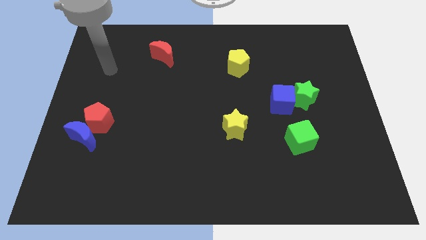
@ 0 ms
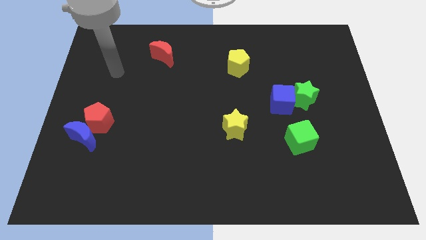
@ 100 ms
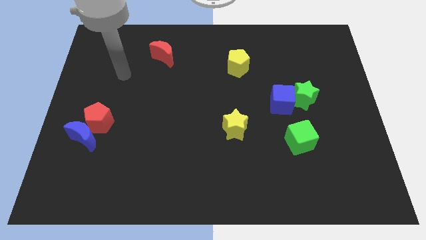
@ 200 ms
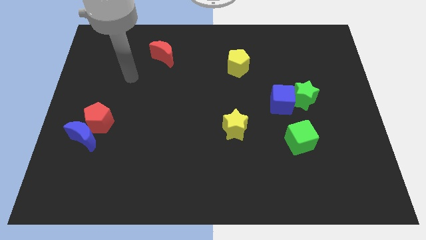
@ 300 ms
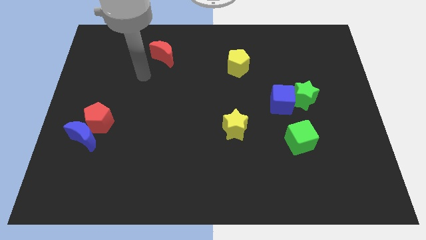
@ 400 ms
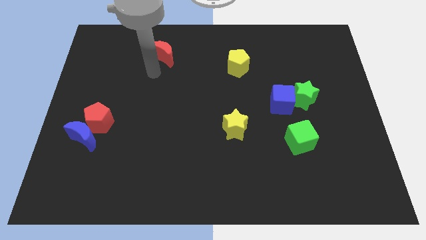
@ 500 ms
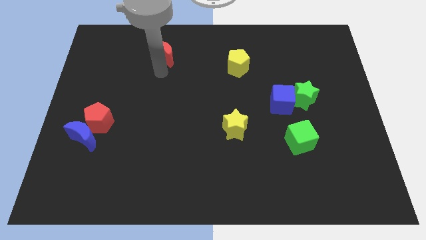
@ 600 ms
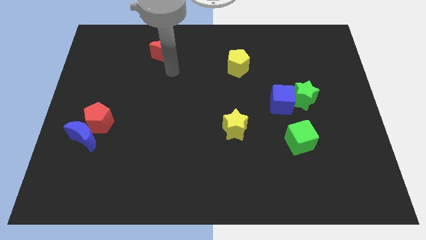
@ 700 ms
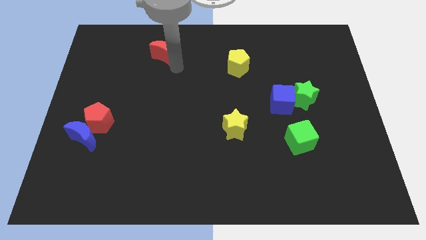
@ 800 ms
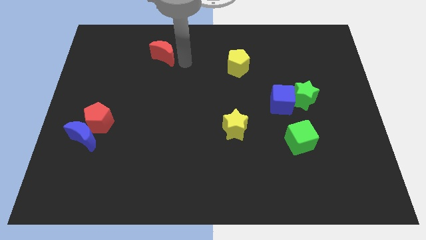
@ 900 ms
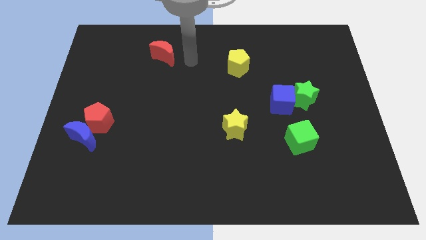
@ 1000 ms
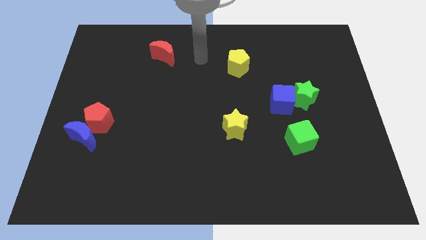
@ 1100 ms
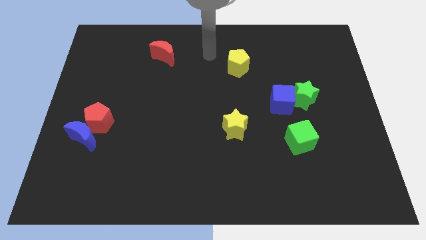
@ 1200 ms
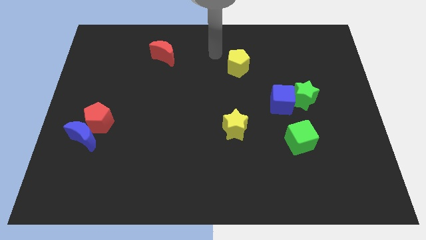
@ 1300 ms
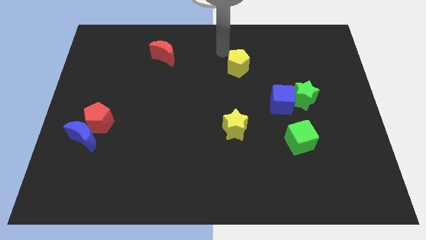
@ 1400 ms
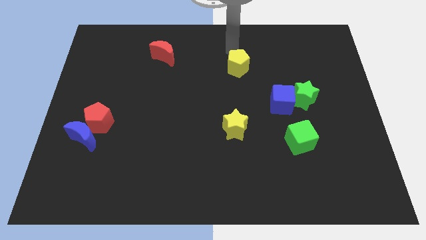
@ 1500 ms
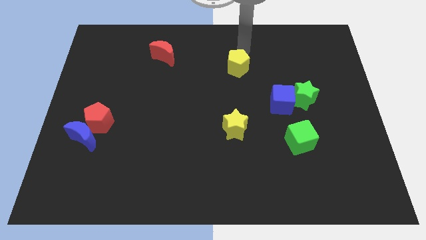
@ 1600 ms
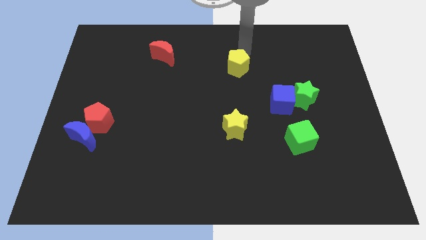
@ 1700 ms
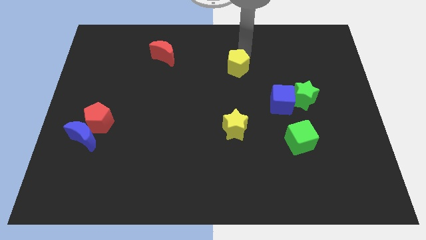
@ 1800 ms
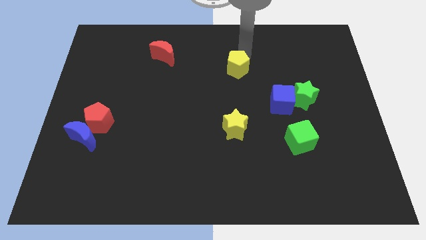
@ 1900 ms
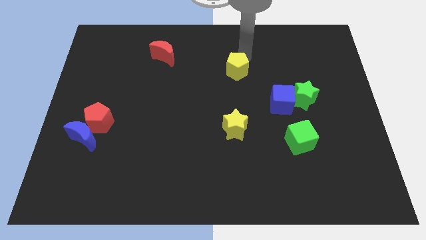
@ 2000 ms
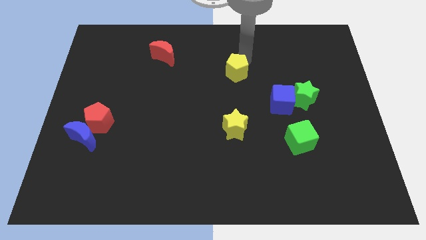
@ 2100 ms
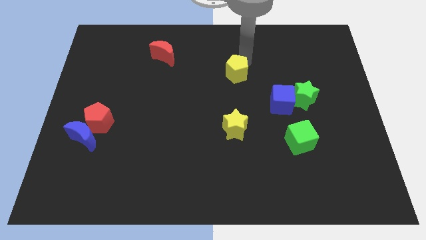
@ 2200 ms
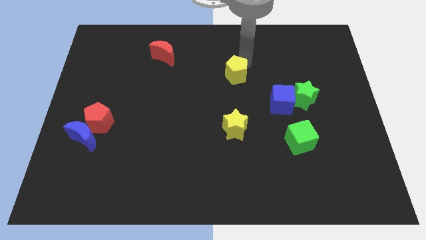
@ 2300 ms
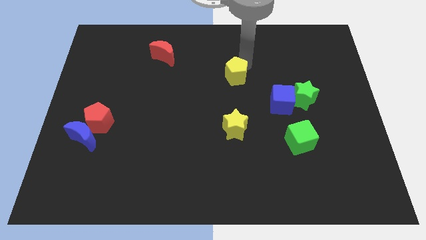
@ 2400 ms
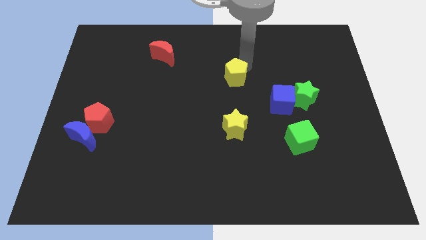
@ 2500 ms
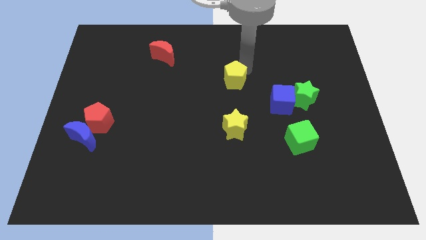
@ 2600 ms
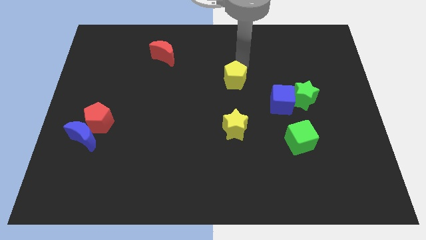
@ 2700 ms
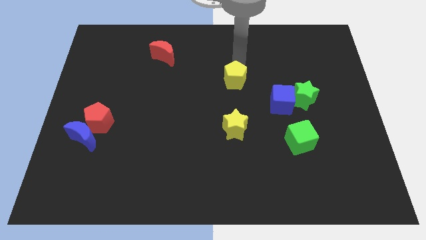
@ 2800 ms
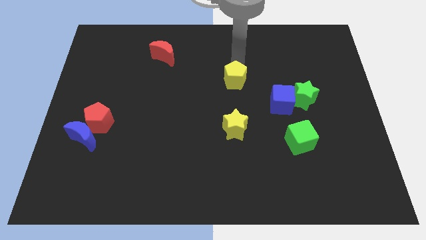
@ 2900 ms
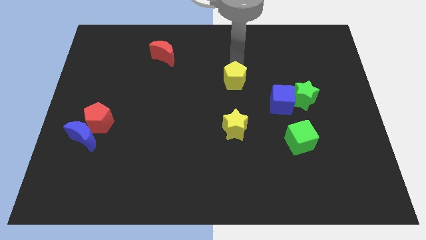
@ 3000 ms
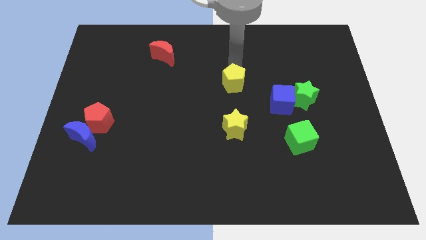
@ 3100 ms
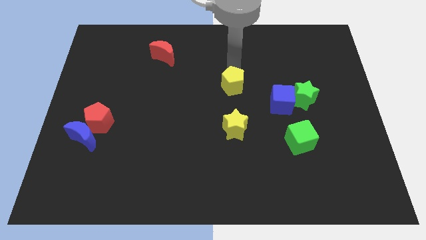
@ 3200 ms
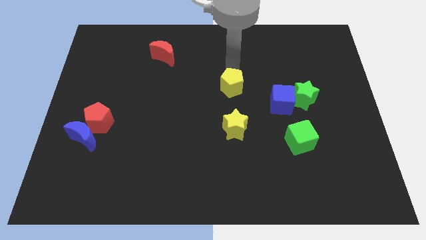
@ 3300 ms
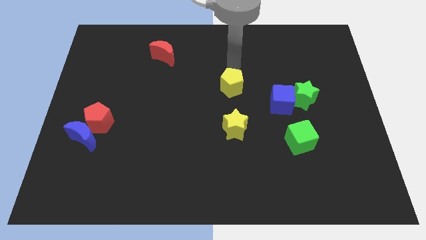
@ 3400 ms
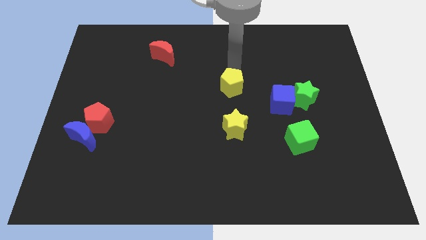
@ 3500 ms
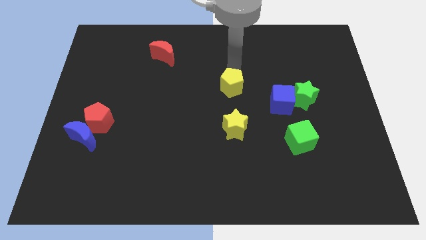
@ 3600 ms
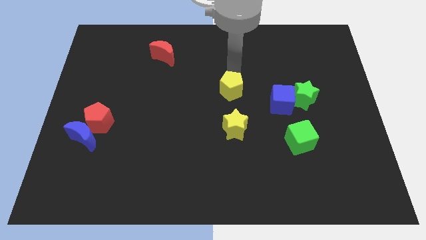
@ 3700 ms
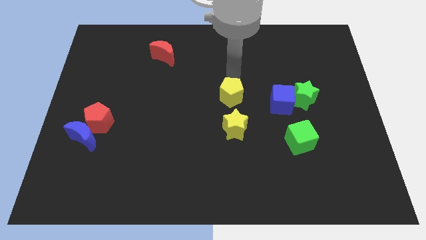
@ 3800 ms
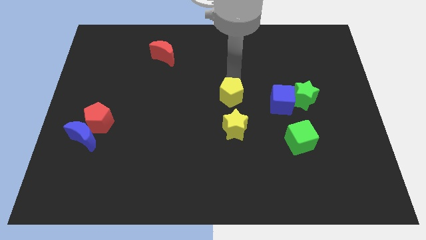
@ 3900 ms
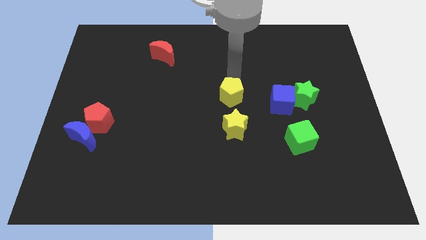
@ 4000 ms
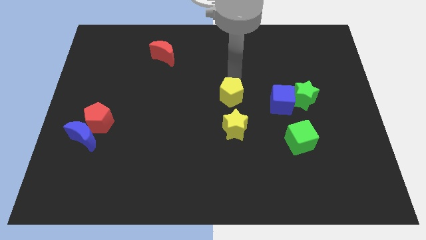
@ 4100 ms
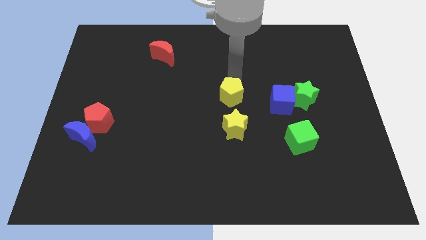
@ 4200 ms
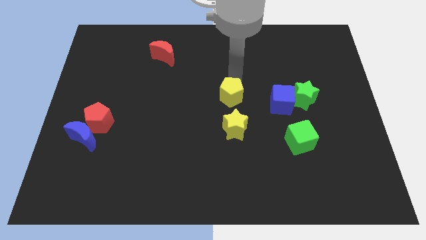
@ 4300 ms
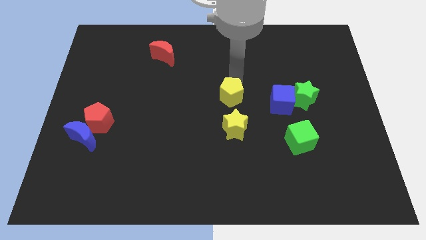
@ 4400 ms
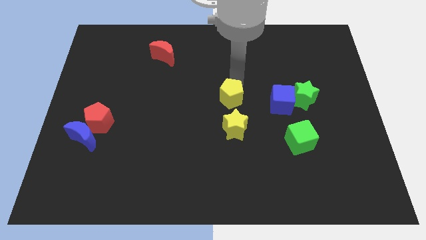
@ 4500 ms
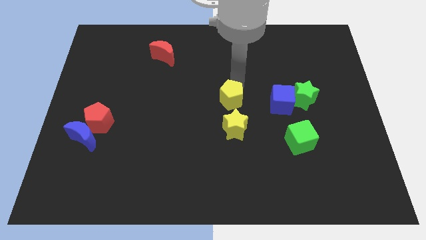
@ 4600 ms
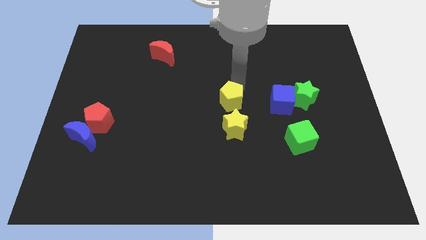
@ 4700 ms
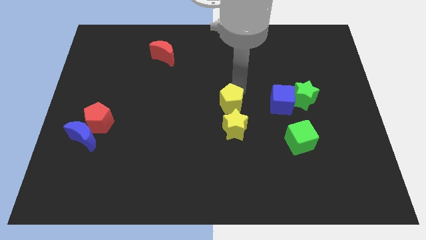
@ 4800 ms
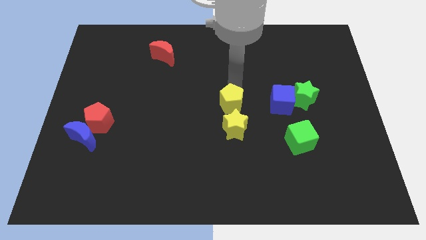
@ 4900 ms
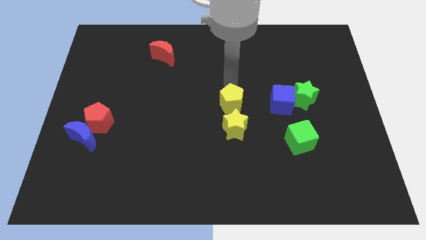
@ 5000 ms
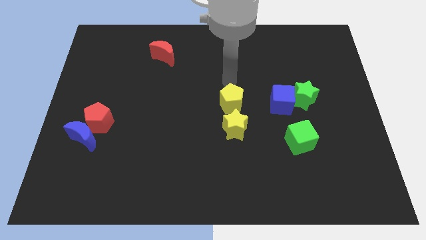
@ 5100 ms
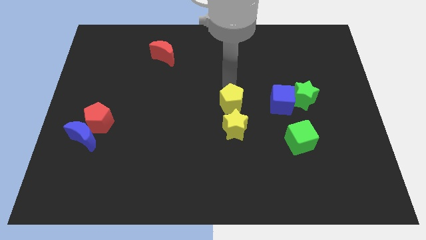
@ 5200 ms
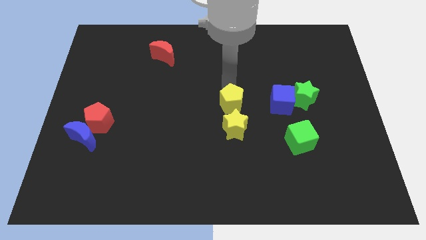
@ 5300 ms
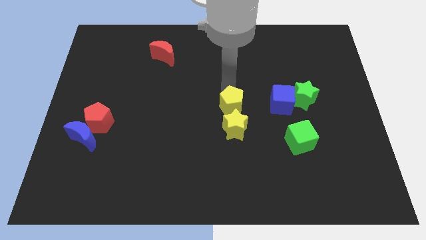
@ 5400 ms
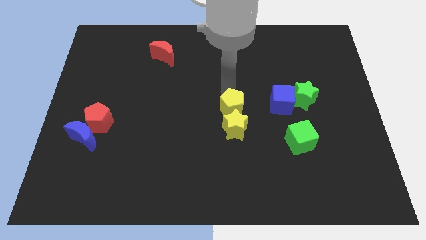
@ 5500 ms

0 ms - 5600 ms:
slide the yellow pentagon to the yellow star

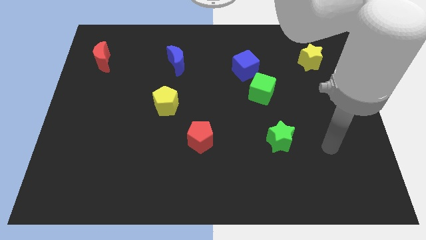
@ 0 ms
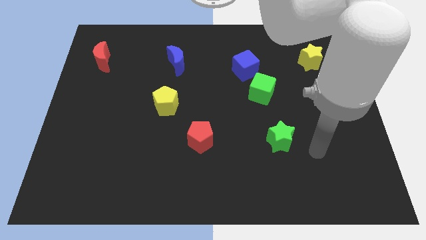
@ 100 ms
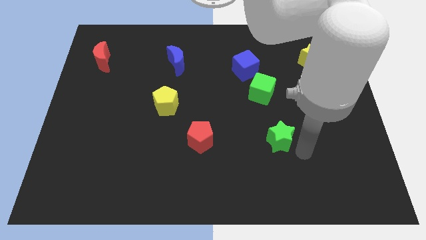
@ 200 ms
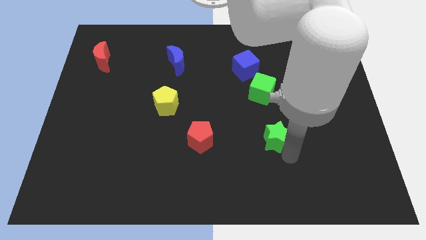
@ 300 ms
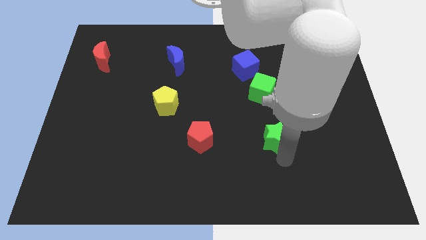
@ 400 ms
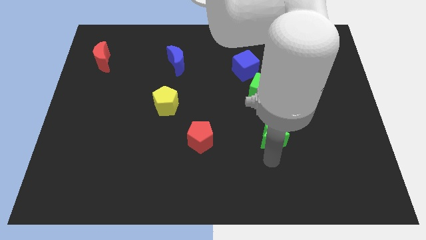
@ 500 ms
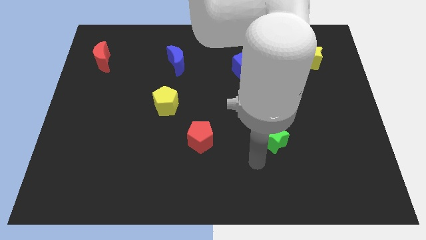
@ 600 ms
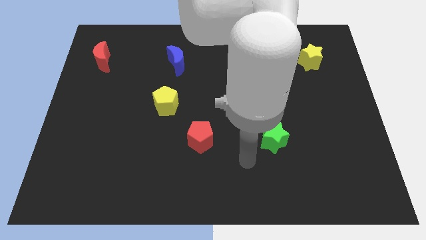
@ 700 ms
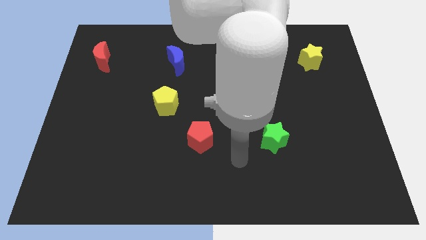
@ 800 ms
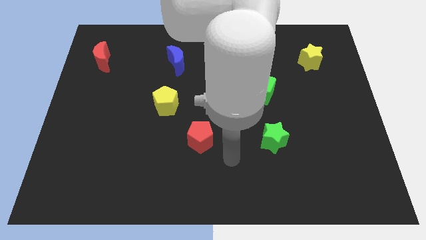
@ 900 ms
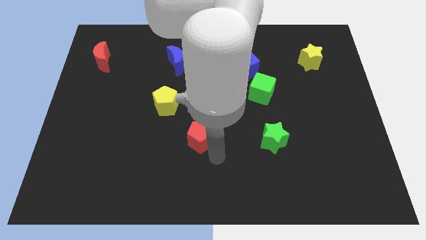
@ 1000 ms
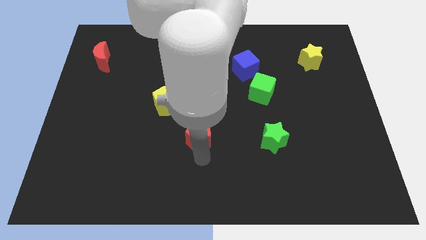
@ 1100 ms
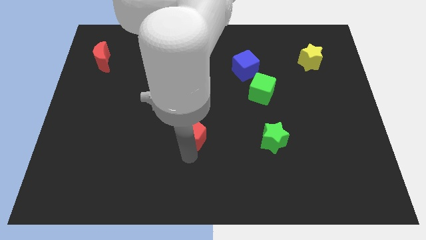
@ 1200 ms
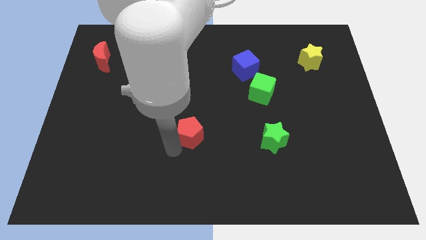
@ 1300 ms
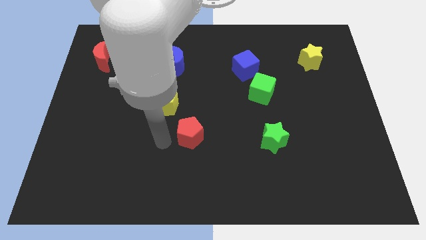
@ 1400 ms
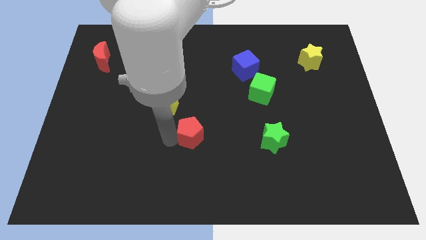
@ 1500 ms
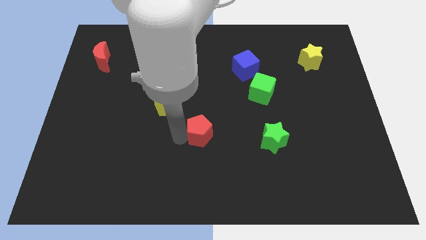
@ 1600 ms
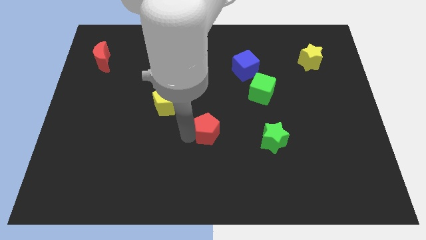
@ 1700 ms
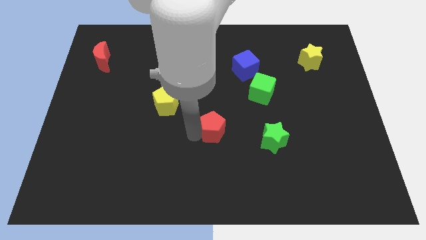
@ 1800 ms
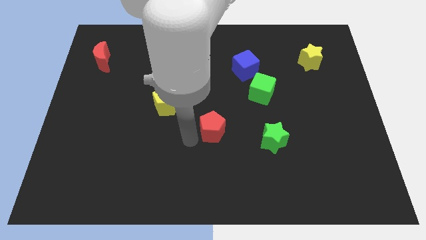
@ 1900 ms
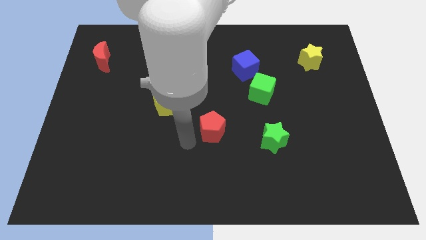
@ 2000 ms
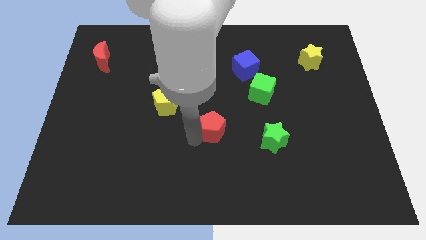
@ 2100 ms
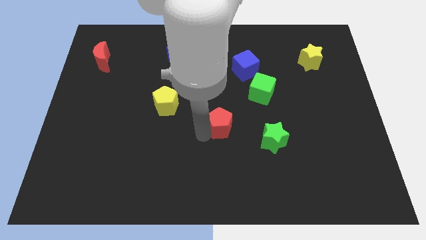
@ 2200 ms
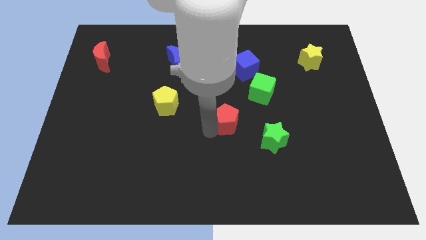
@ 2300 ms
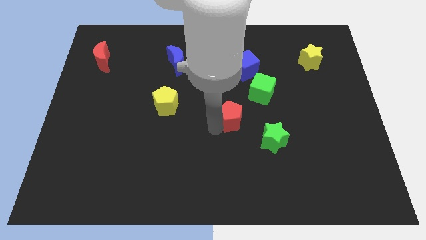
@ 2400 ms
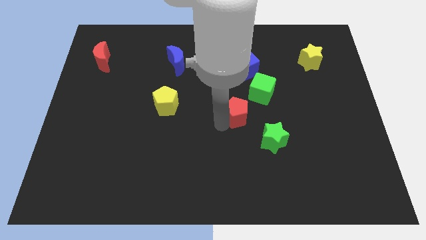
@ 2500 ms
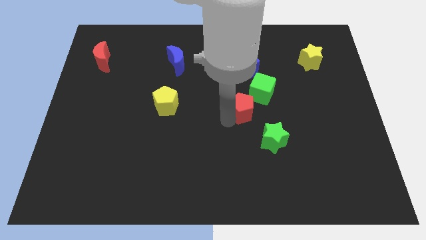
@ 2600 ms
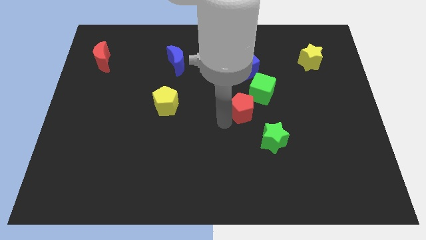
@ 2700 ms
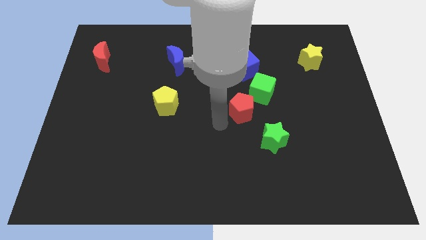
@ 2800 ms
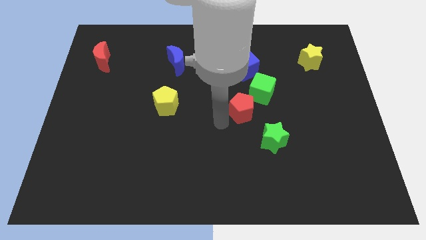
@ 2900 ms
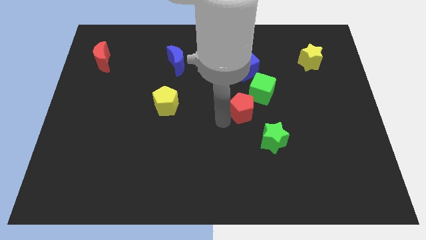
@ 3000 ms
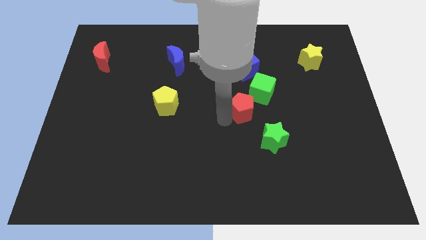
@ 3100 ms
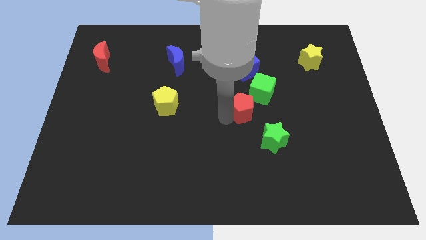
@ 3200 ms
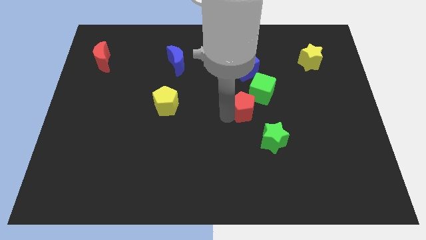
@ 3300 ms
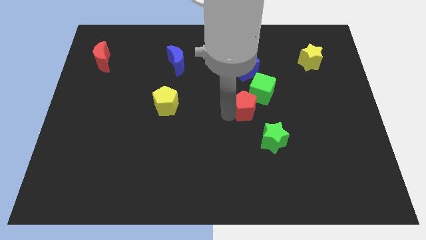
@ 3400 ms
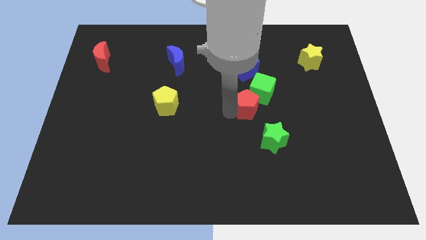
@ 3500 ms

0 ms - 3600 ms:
push the red pentagon close to the green cube
